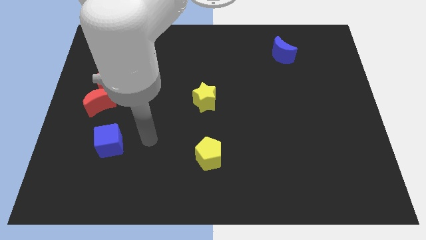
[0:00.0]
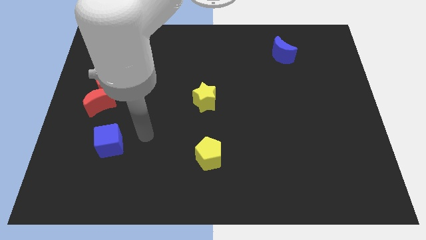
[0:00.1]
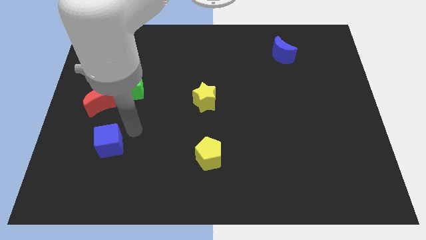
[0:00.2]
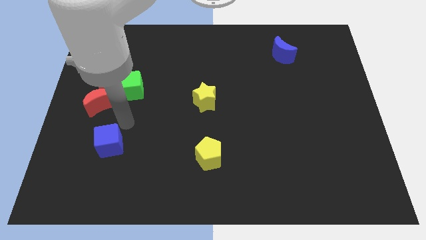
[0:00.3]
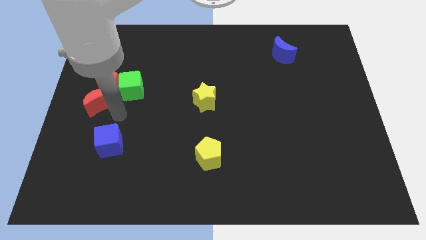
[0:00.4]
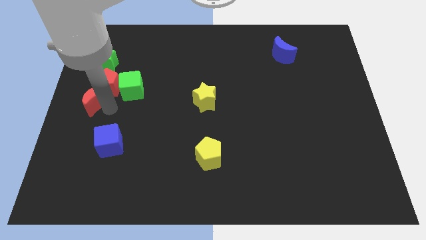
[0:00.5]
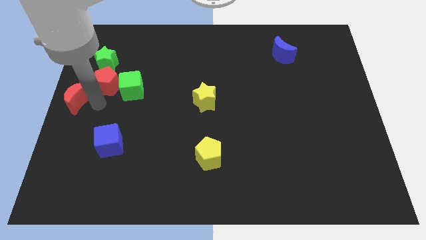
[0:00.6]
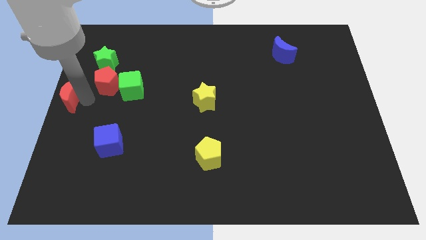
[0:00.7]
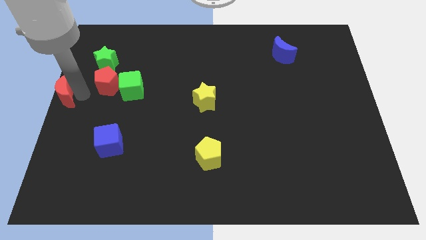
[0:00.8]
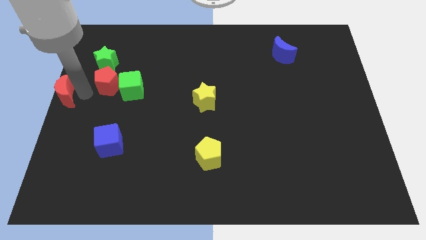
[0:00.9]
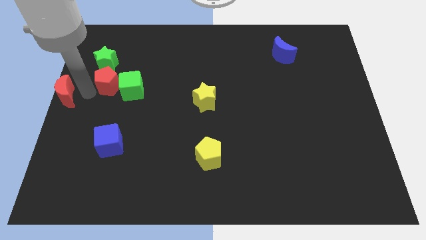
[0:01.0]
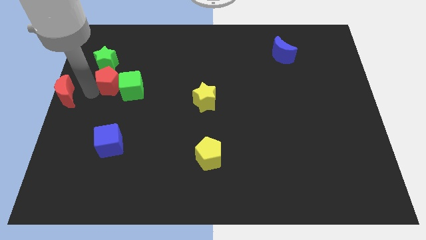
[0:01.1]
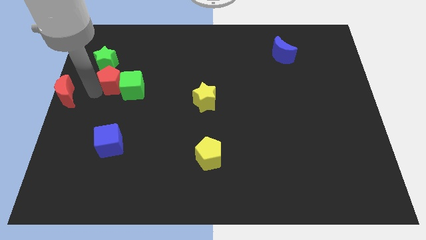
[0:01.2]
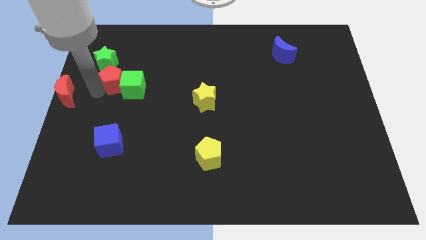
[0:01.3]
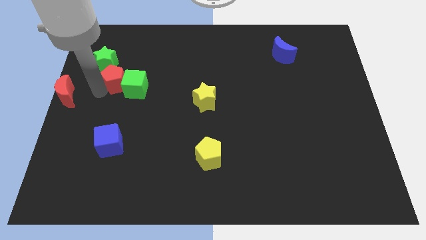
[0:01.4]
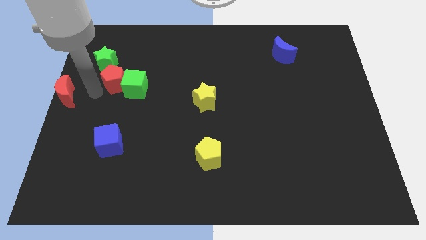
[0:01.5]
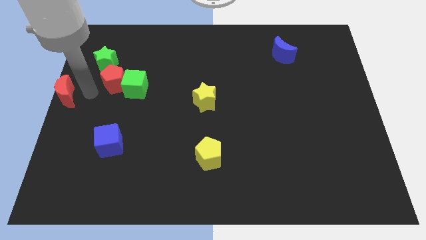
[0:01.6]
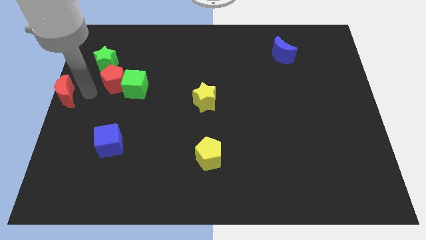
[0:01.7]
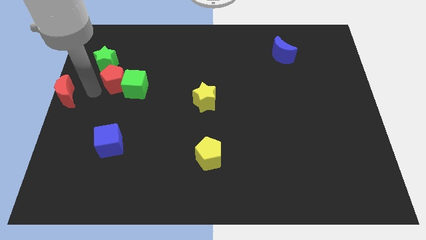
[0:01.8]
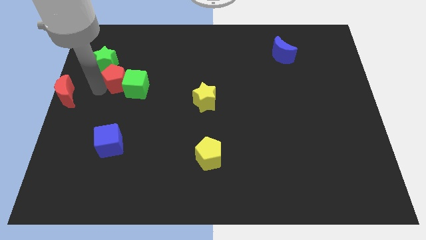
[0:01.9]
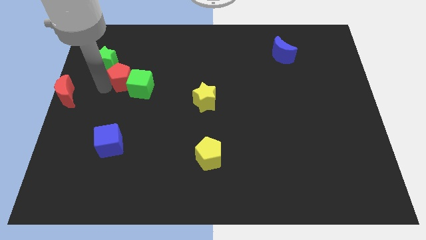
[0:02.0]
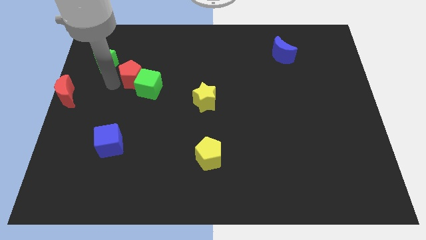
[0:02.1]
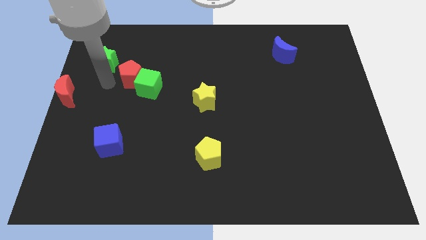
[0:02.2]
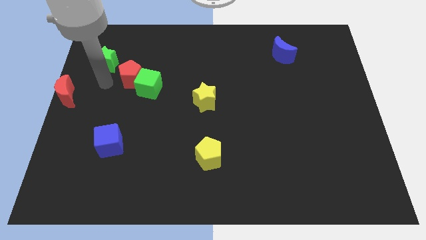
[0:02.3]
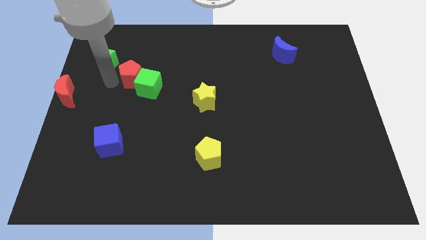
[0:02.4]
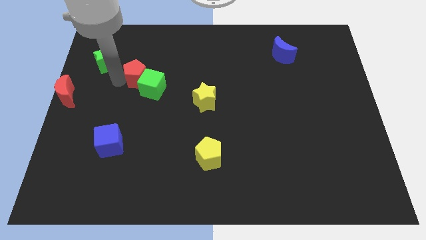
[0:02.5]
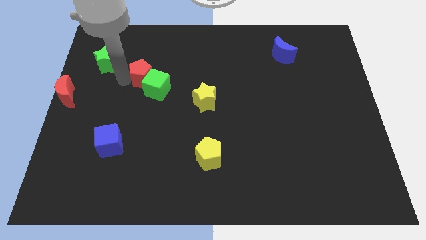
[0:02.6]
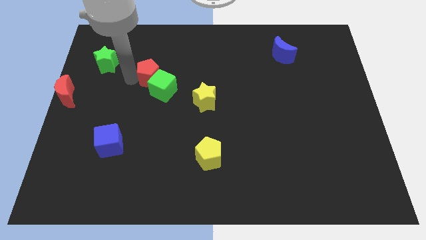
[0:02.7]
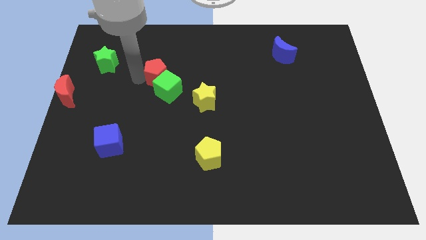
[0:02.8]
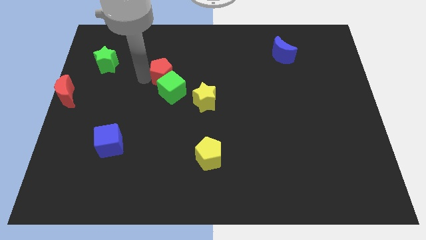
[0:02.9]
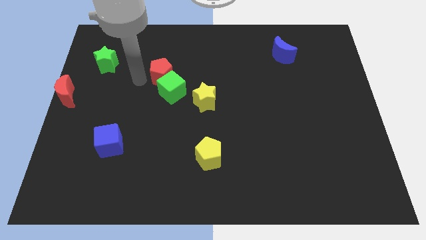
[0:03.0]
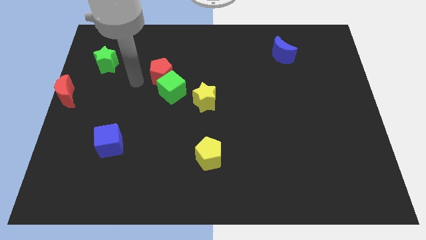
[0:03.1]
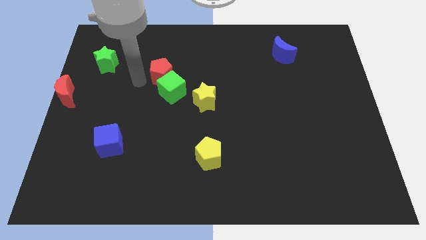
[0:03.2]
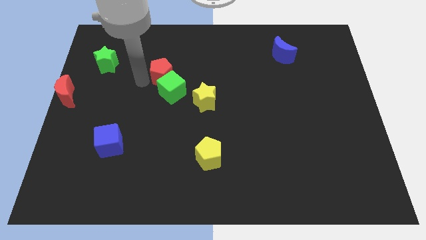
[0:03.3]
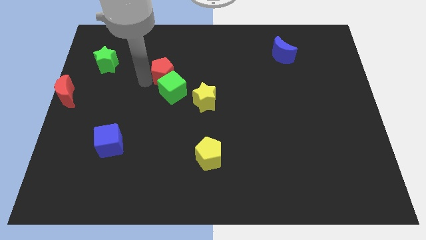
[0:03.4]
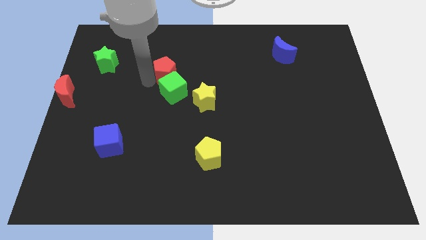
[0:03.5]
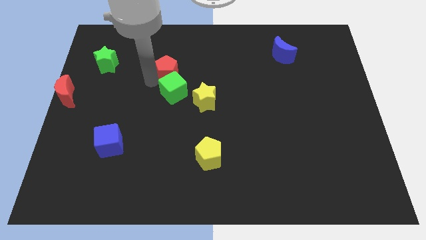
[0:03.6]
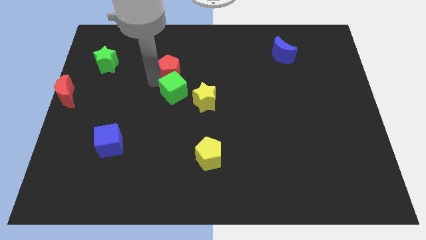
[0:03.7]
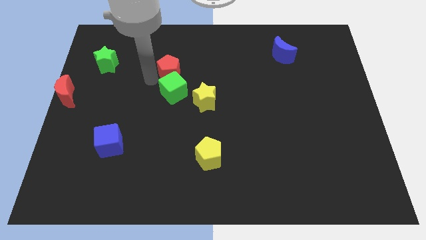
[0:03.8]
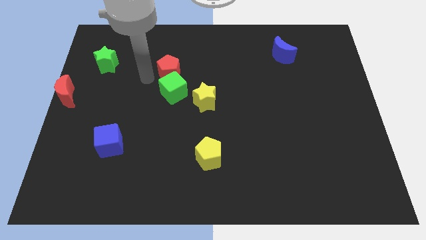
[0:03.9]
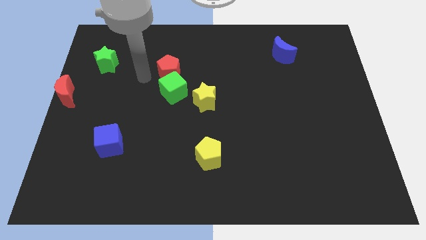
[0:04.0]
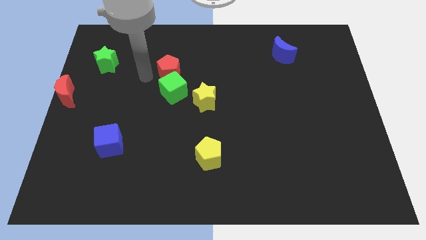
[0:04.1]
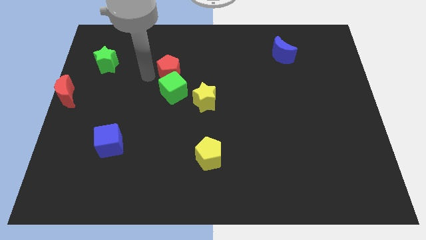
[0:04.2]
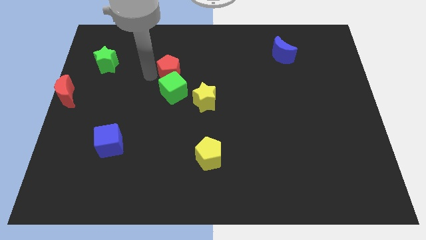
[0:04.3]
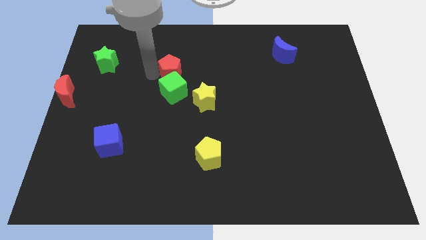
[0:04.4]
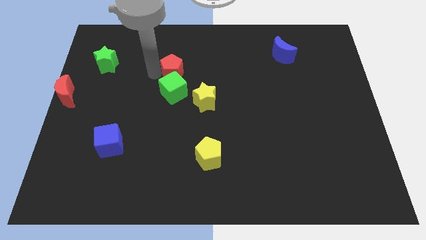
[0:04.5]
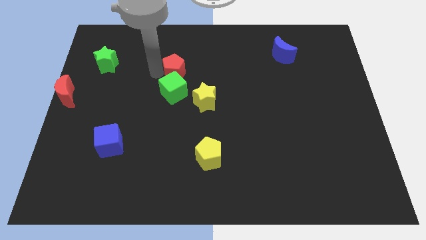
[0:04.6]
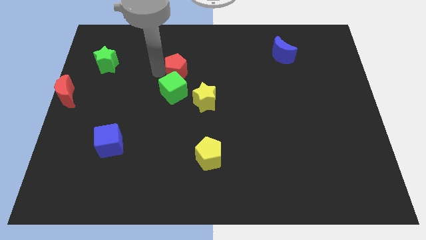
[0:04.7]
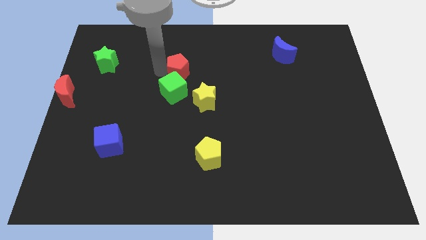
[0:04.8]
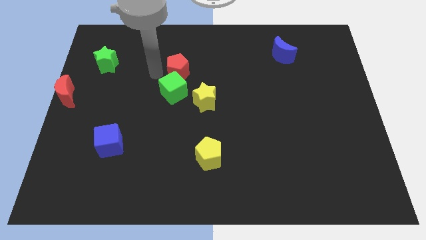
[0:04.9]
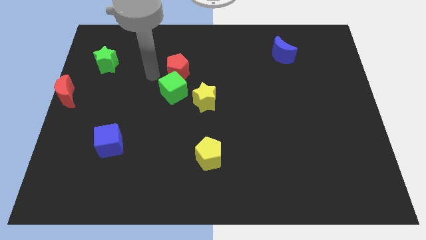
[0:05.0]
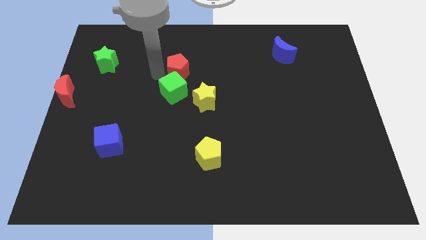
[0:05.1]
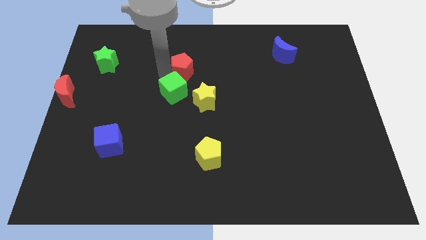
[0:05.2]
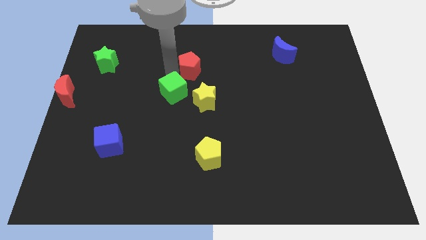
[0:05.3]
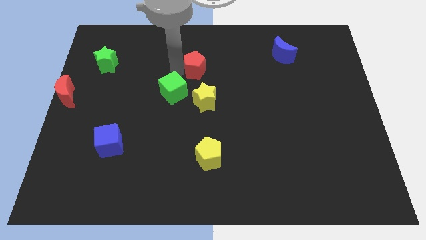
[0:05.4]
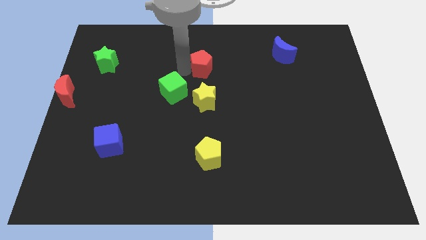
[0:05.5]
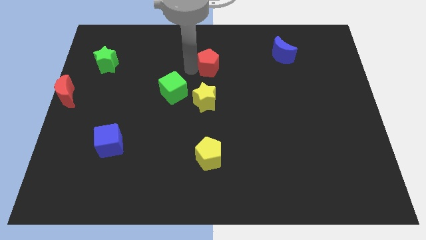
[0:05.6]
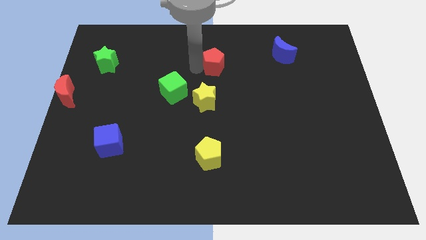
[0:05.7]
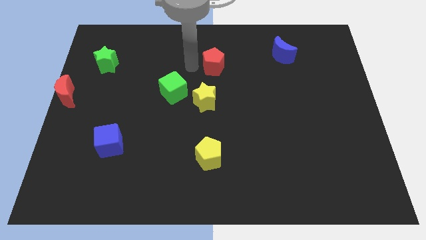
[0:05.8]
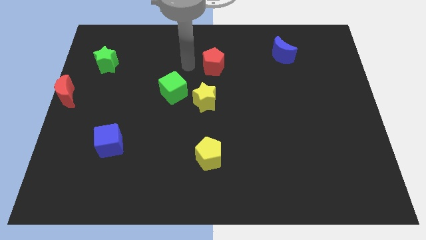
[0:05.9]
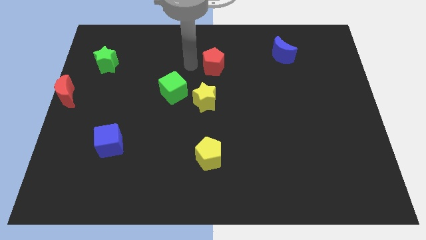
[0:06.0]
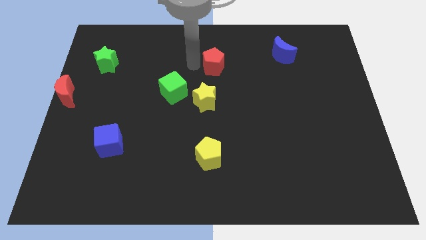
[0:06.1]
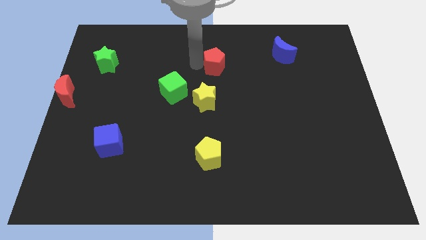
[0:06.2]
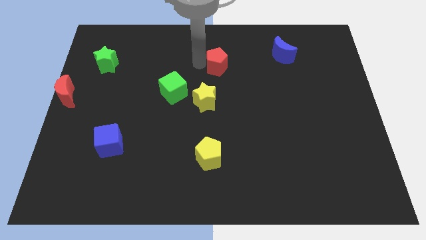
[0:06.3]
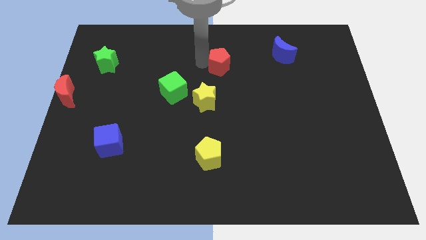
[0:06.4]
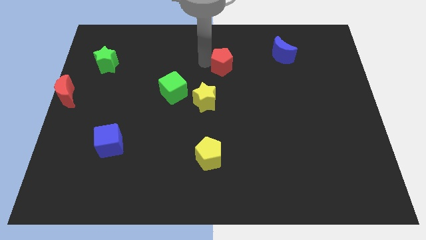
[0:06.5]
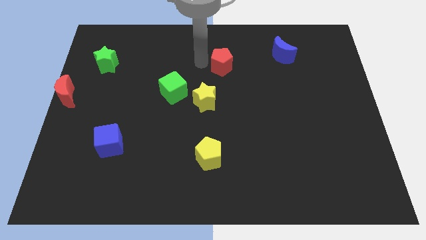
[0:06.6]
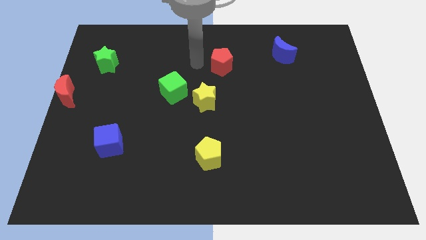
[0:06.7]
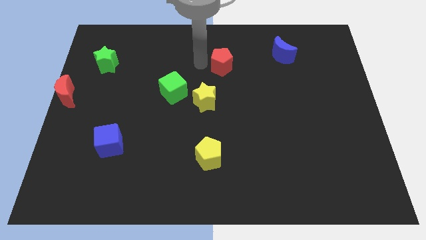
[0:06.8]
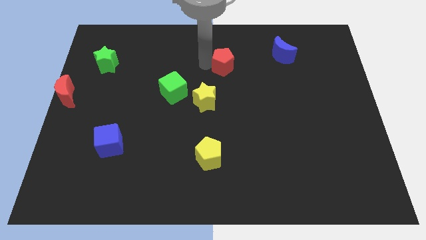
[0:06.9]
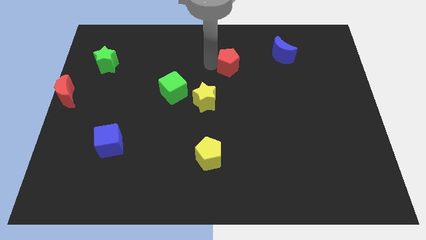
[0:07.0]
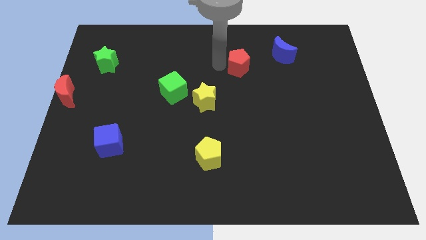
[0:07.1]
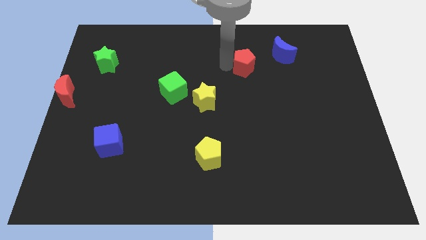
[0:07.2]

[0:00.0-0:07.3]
put the red pentagon diagonally down and to the left of the blue moon
